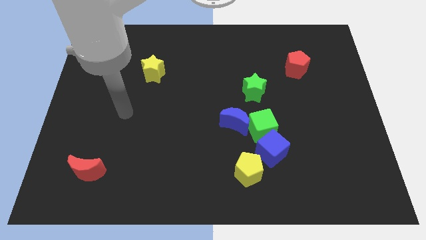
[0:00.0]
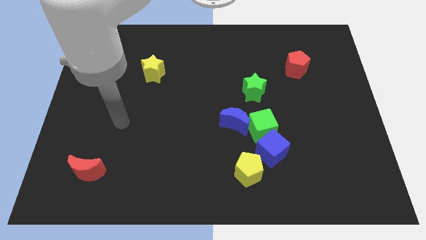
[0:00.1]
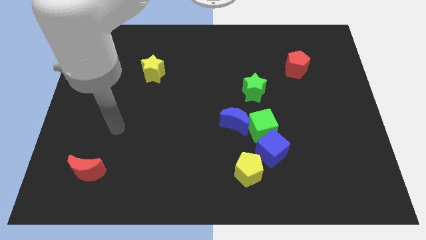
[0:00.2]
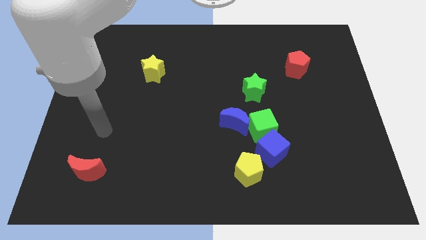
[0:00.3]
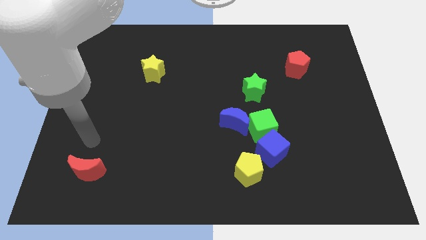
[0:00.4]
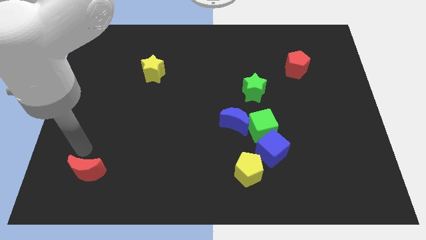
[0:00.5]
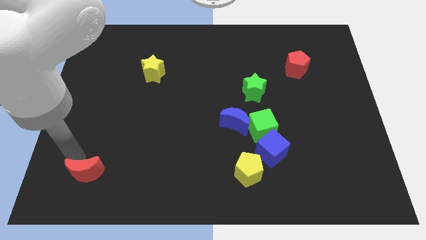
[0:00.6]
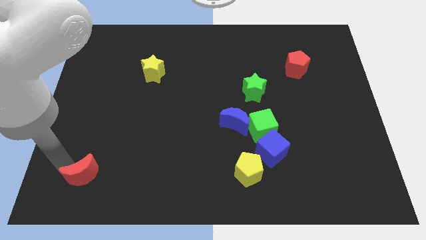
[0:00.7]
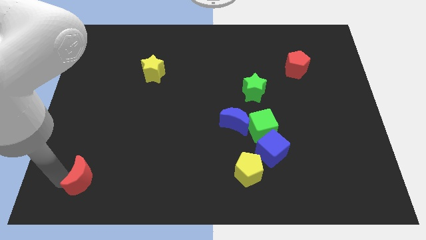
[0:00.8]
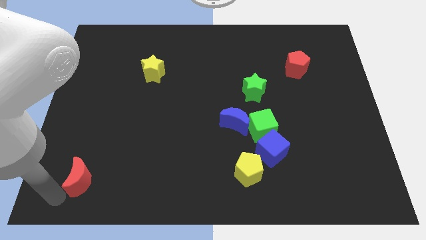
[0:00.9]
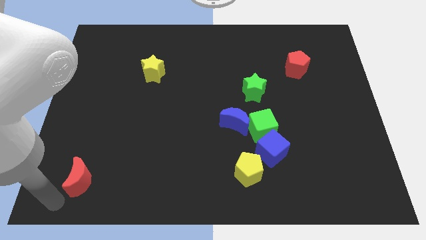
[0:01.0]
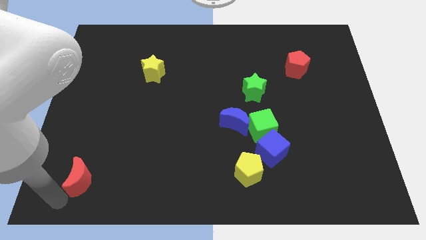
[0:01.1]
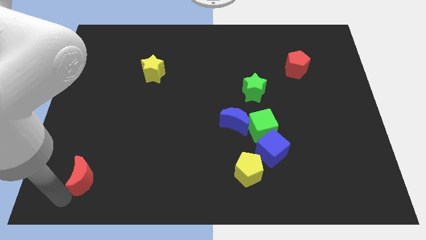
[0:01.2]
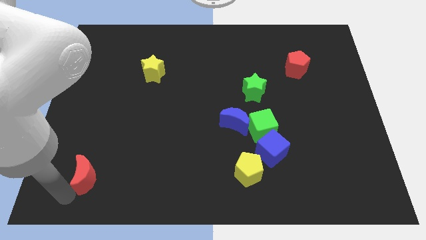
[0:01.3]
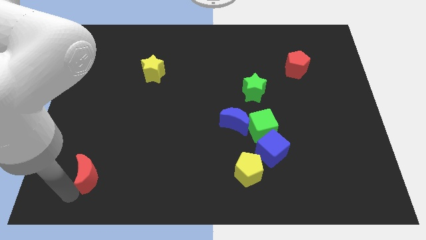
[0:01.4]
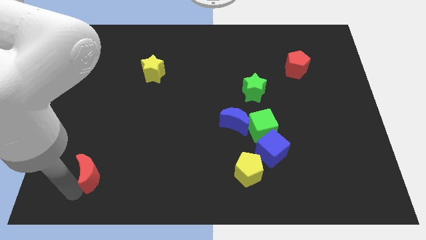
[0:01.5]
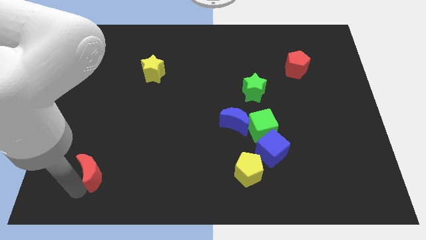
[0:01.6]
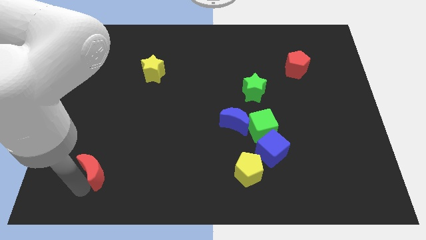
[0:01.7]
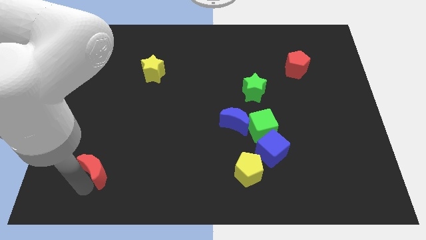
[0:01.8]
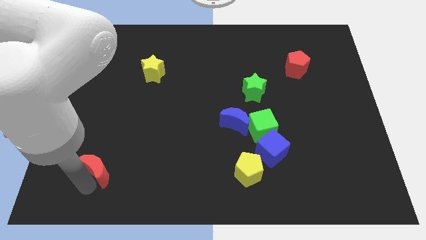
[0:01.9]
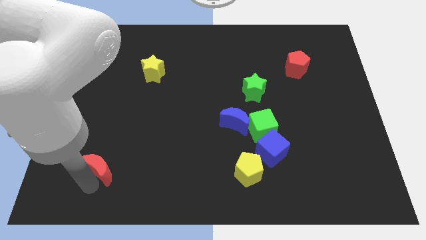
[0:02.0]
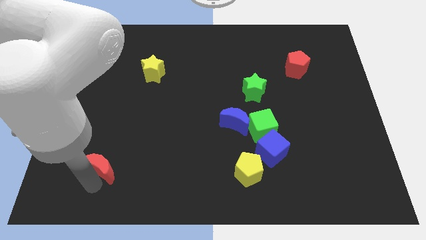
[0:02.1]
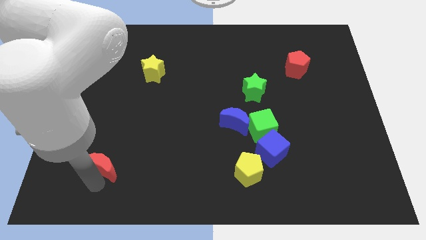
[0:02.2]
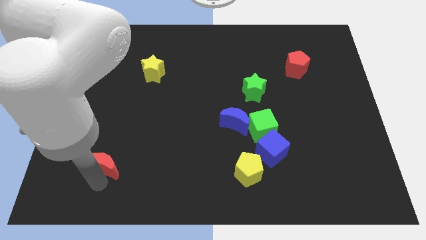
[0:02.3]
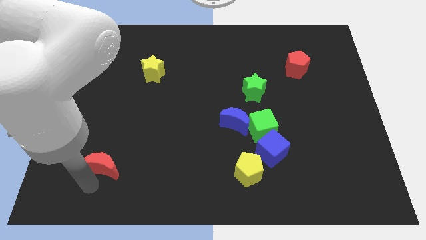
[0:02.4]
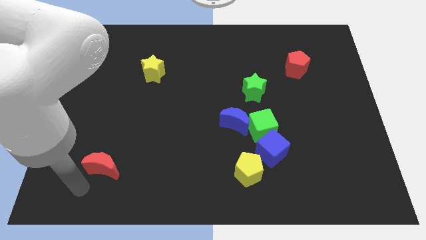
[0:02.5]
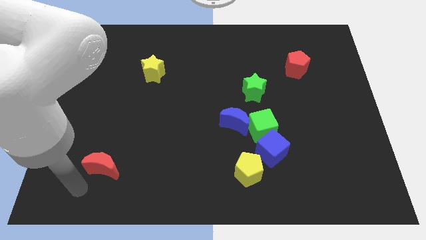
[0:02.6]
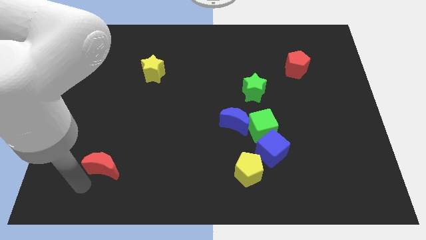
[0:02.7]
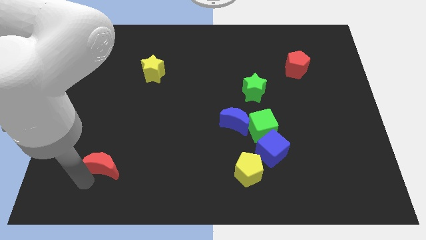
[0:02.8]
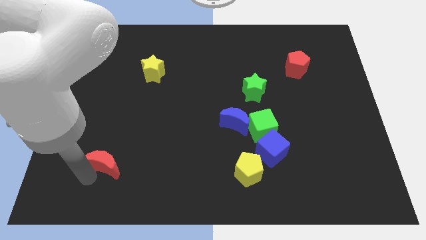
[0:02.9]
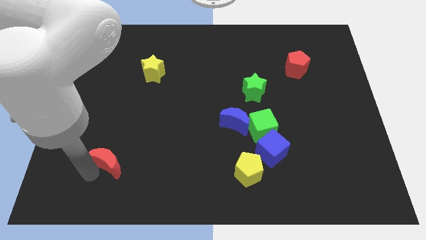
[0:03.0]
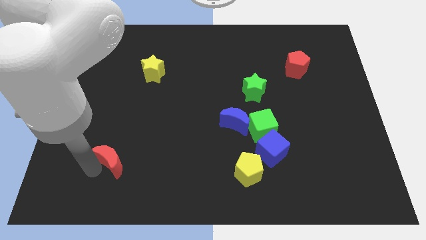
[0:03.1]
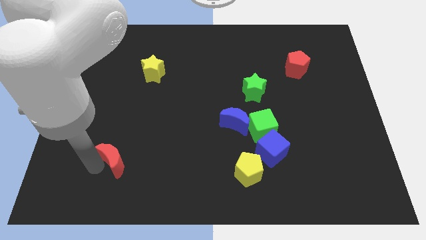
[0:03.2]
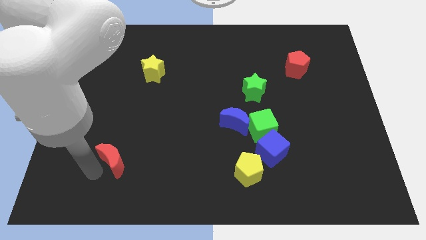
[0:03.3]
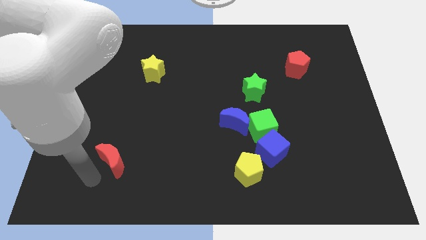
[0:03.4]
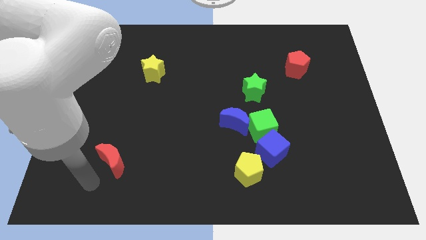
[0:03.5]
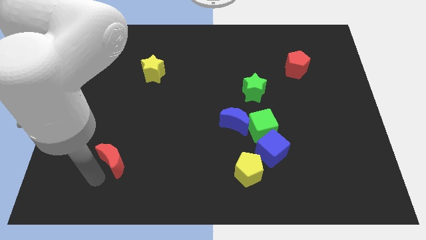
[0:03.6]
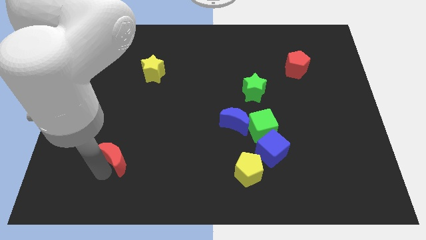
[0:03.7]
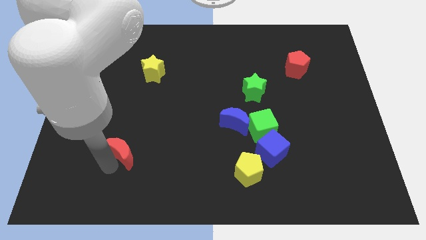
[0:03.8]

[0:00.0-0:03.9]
slide the red moon up and right diagonally a little bit

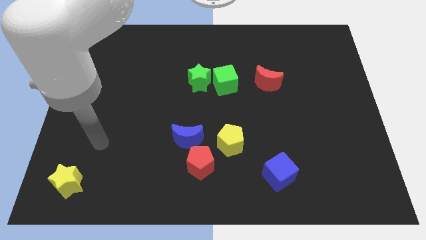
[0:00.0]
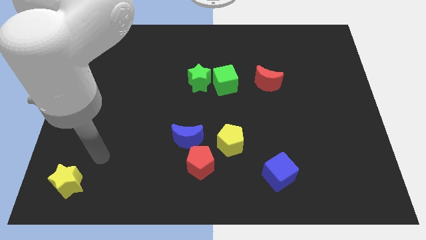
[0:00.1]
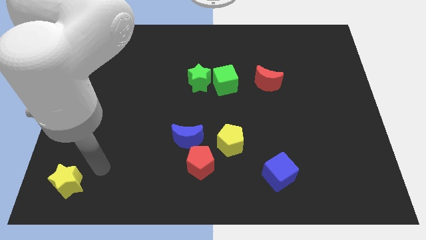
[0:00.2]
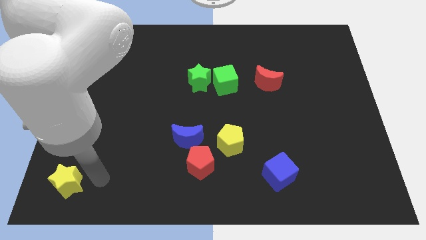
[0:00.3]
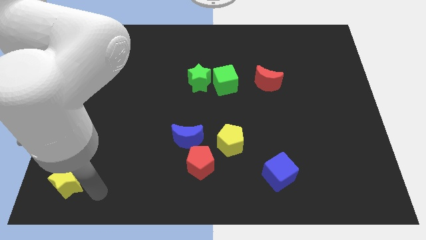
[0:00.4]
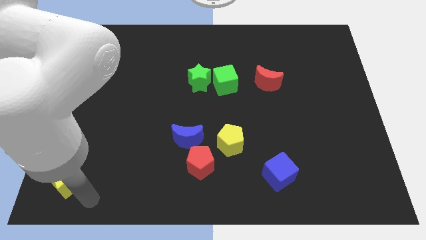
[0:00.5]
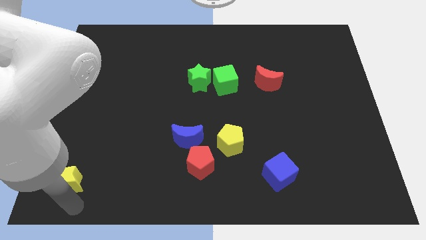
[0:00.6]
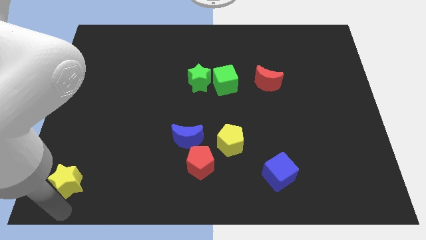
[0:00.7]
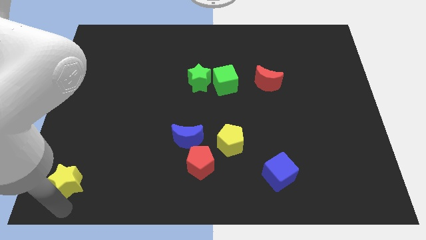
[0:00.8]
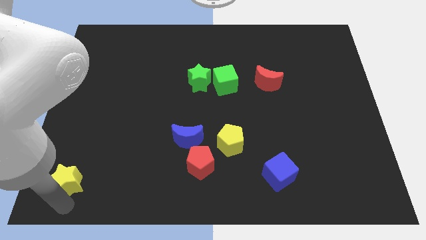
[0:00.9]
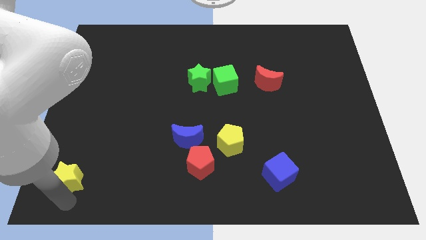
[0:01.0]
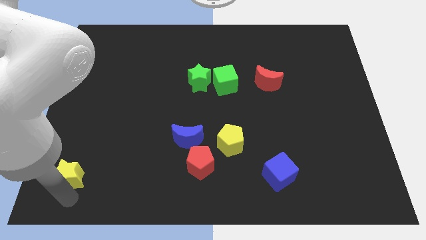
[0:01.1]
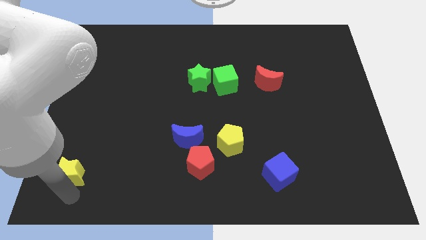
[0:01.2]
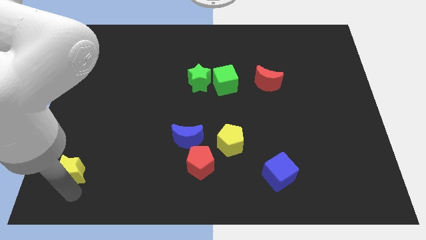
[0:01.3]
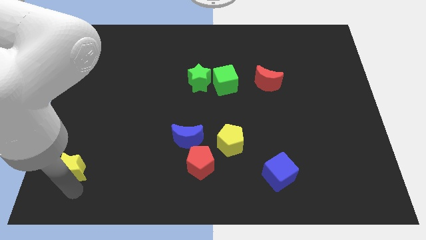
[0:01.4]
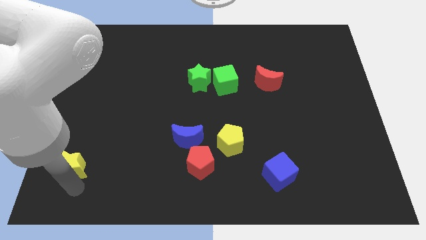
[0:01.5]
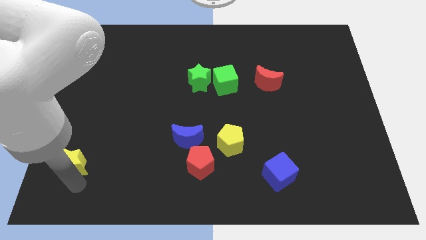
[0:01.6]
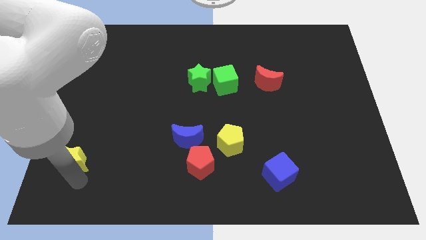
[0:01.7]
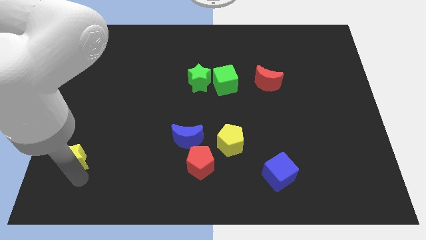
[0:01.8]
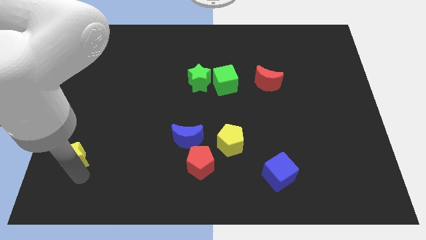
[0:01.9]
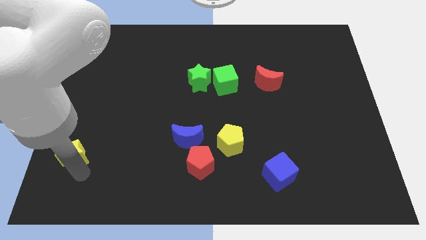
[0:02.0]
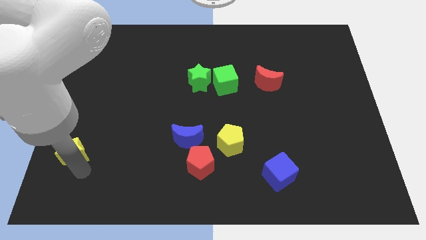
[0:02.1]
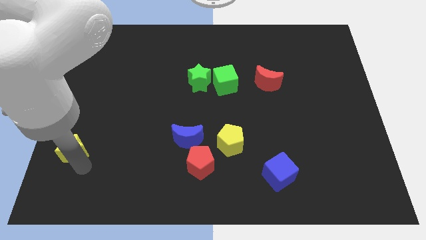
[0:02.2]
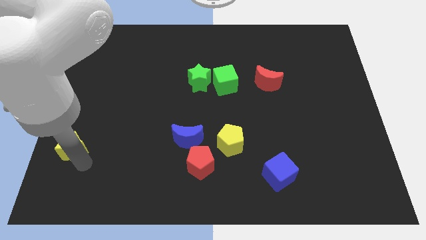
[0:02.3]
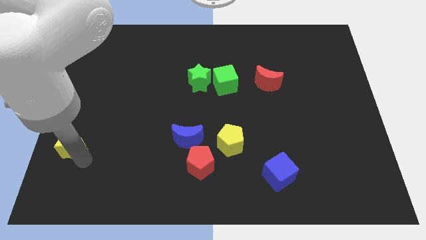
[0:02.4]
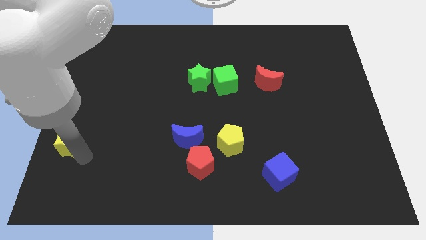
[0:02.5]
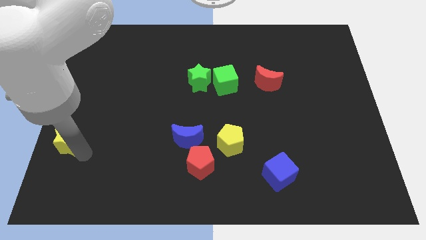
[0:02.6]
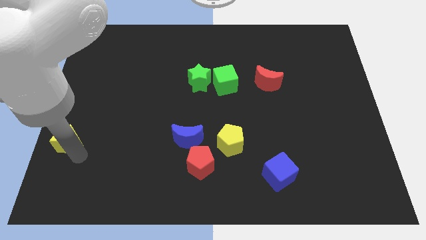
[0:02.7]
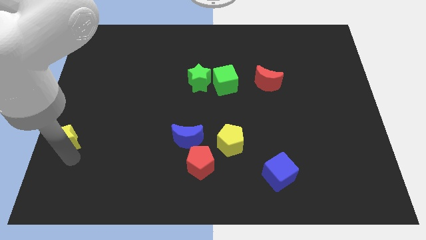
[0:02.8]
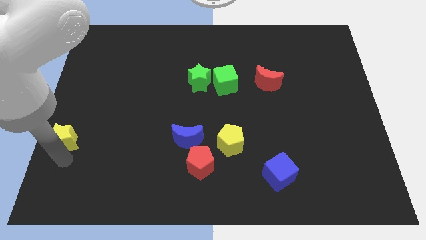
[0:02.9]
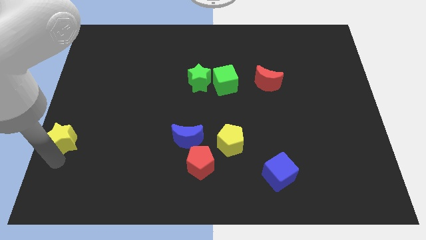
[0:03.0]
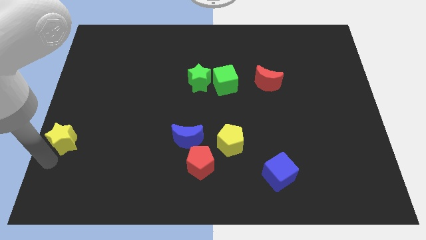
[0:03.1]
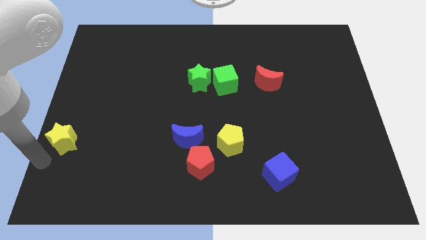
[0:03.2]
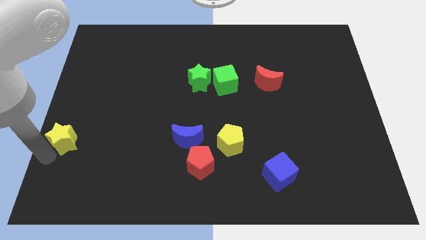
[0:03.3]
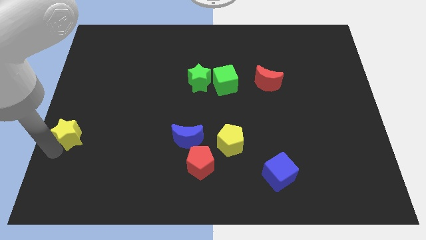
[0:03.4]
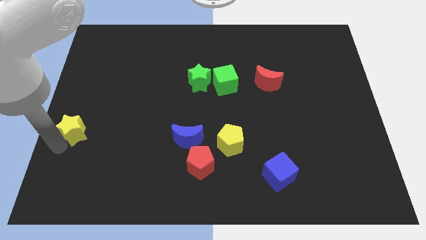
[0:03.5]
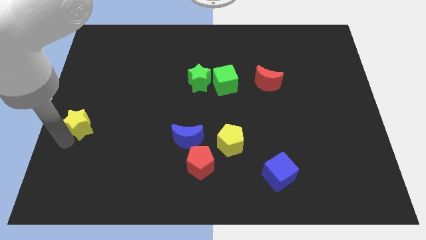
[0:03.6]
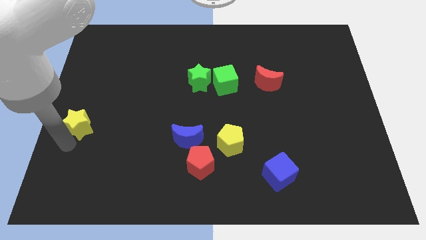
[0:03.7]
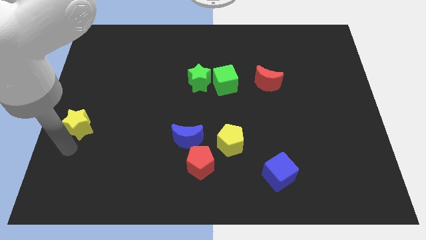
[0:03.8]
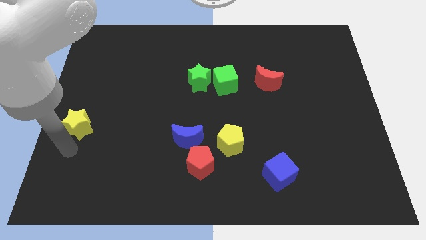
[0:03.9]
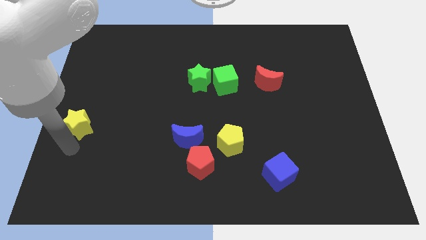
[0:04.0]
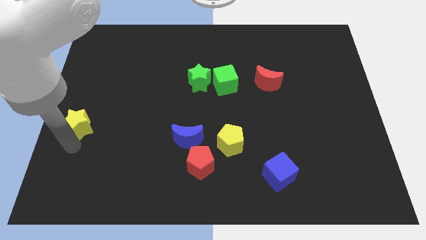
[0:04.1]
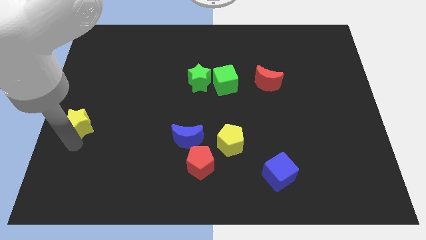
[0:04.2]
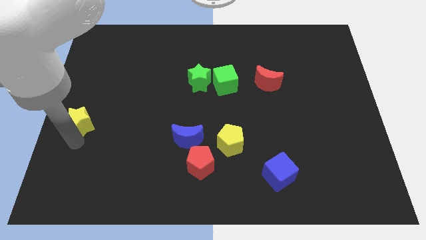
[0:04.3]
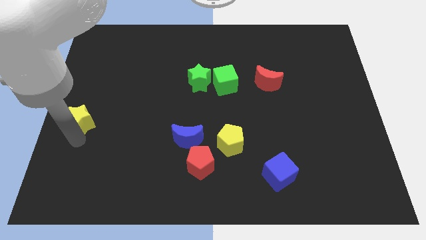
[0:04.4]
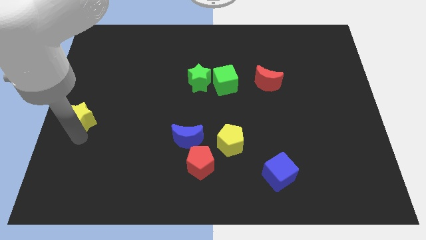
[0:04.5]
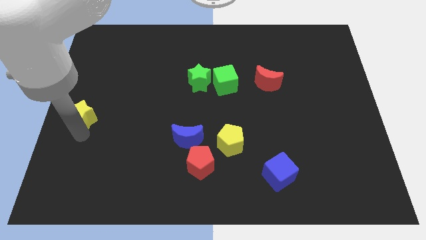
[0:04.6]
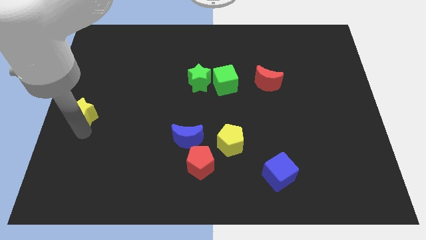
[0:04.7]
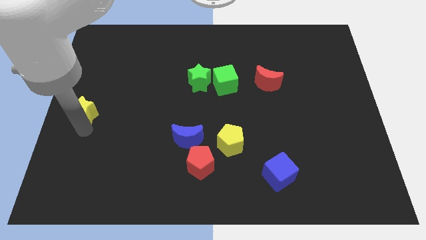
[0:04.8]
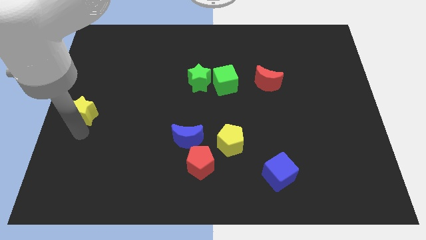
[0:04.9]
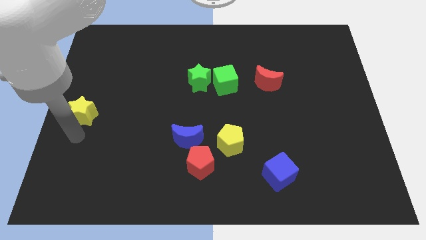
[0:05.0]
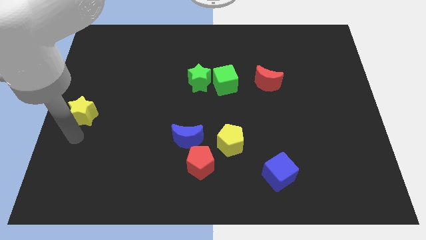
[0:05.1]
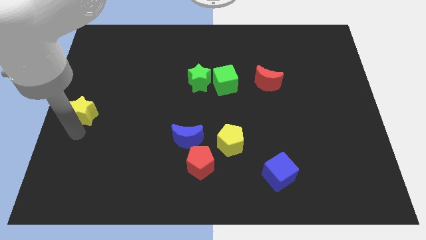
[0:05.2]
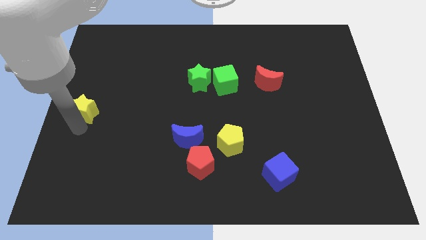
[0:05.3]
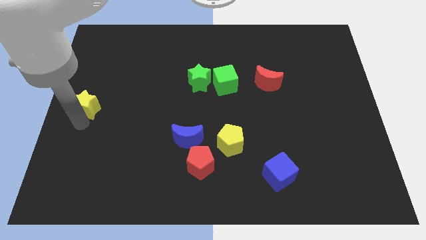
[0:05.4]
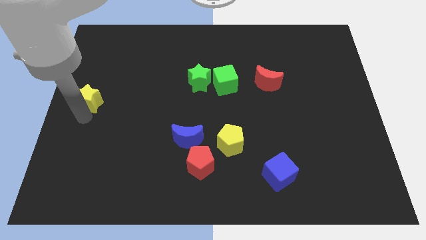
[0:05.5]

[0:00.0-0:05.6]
move the yellow star up
